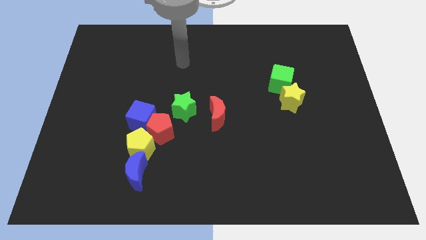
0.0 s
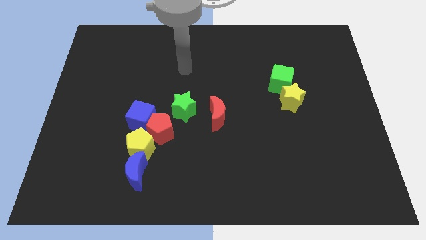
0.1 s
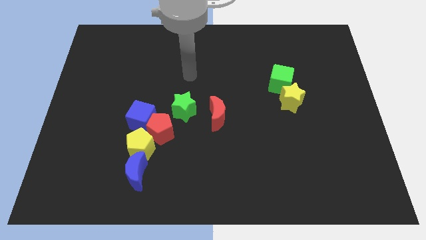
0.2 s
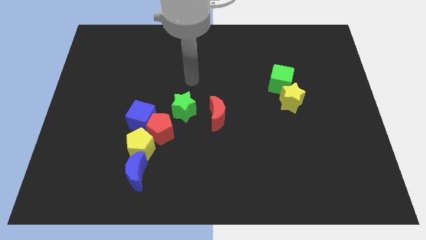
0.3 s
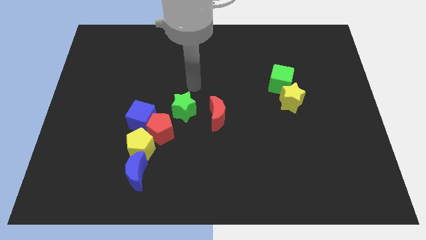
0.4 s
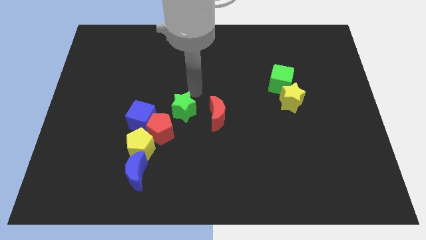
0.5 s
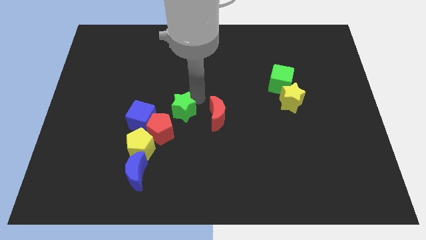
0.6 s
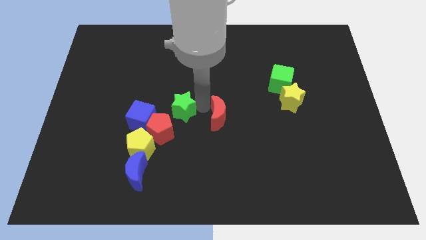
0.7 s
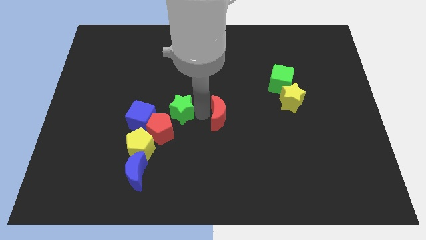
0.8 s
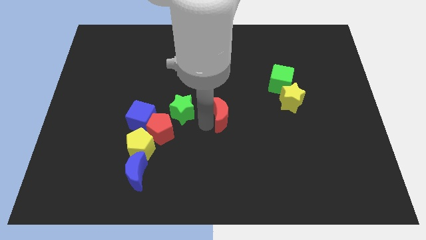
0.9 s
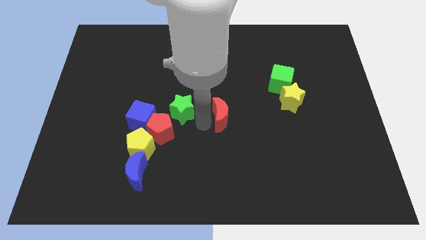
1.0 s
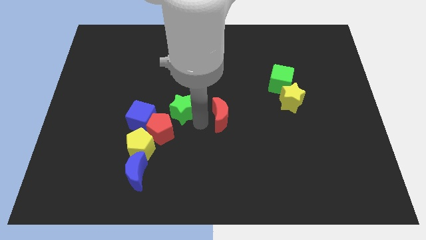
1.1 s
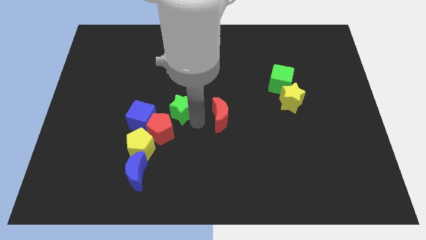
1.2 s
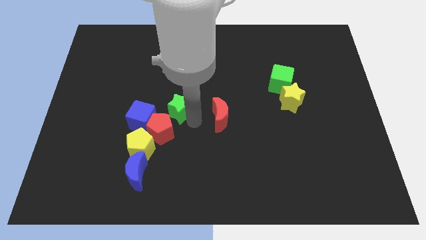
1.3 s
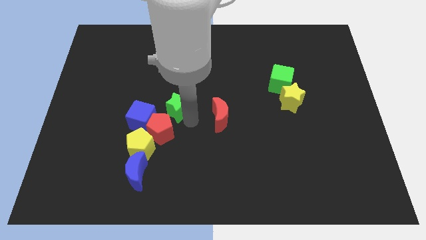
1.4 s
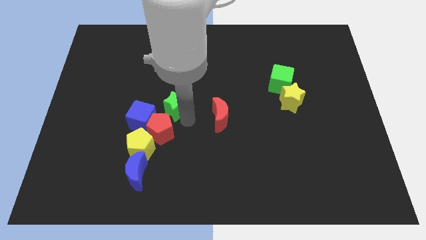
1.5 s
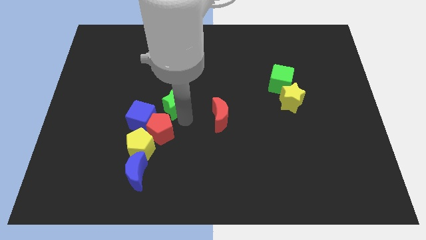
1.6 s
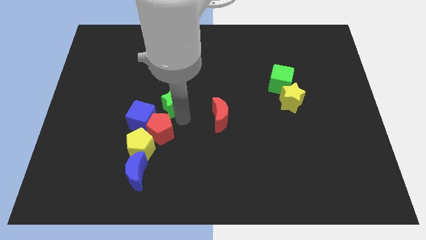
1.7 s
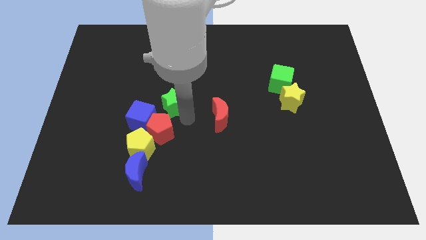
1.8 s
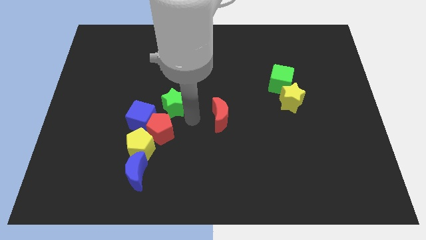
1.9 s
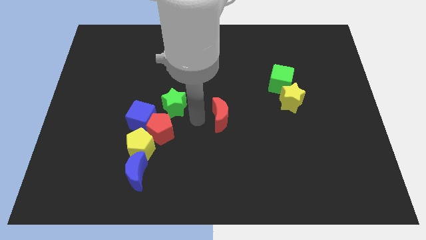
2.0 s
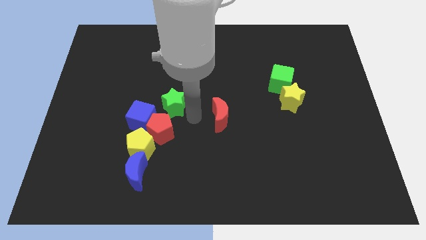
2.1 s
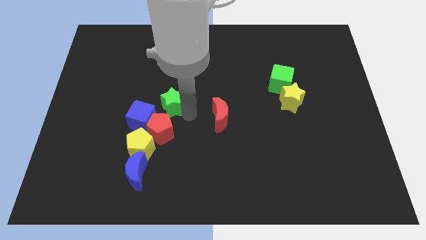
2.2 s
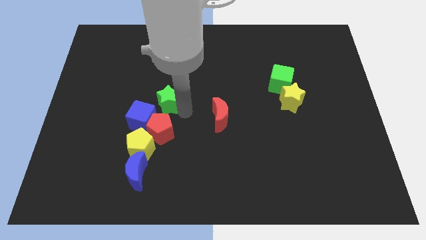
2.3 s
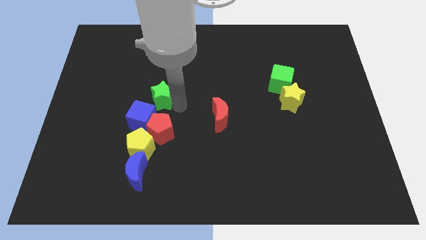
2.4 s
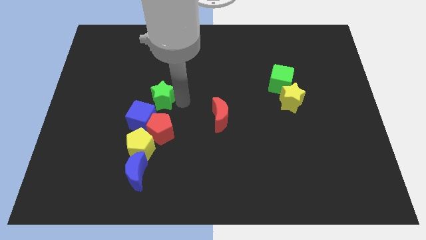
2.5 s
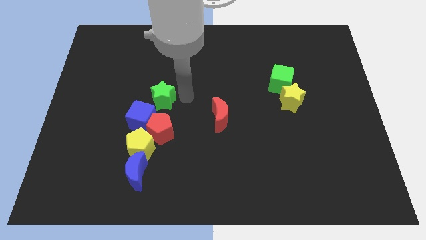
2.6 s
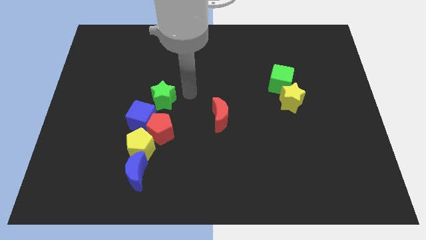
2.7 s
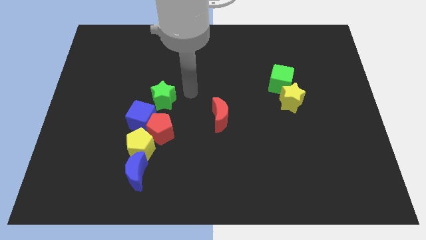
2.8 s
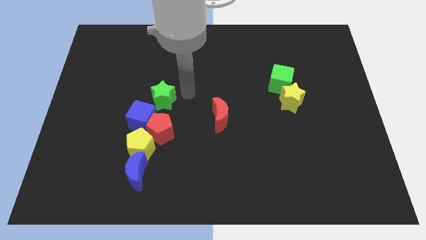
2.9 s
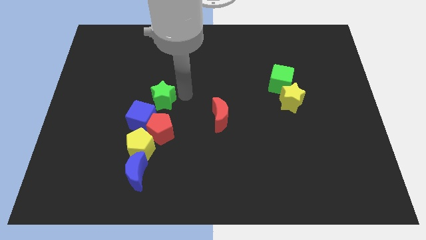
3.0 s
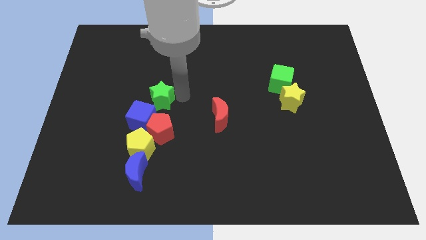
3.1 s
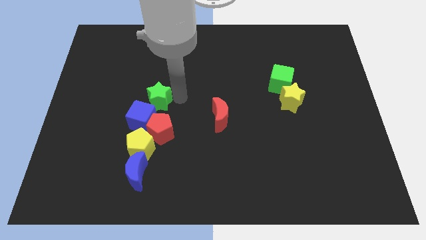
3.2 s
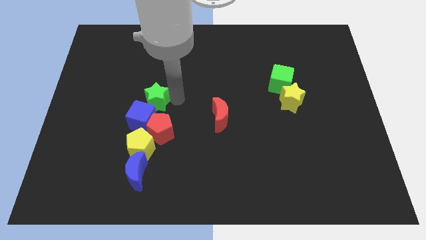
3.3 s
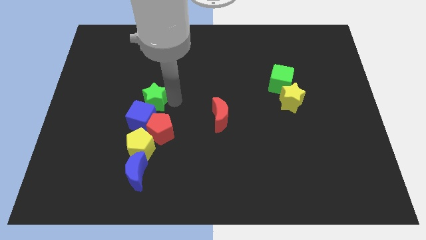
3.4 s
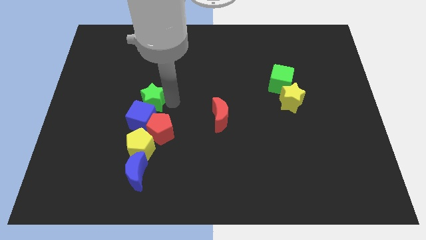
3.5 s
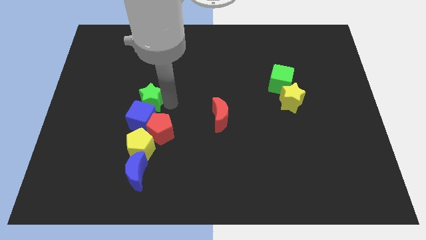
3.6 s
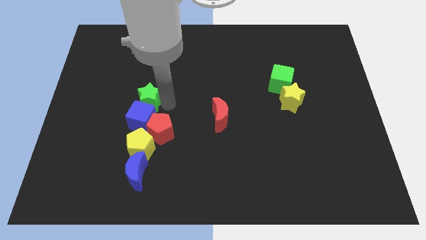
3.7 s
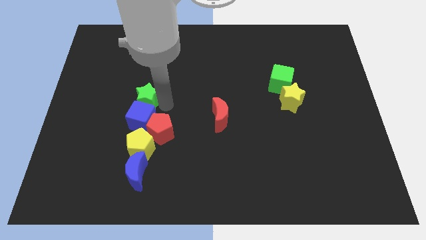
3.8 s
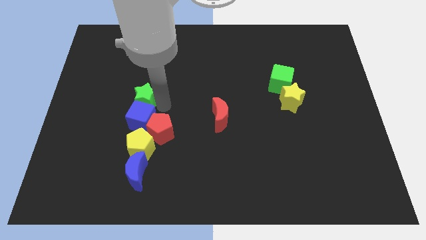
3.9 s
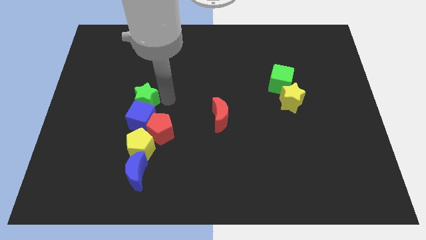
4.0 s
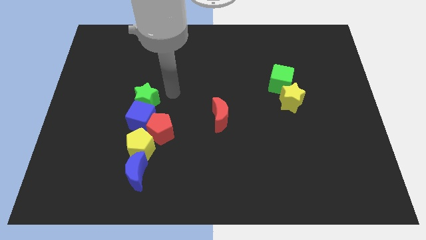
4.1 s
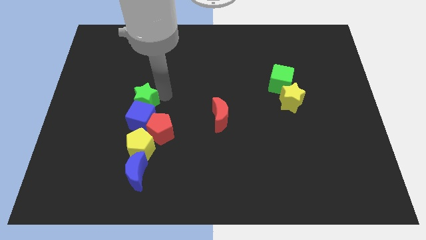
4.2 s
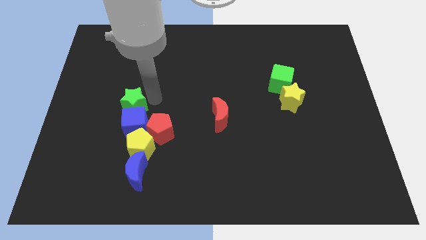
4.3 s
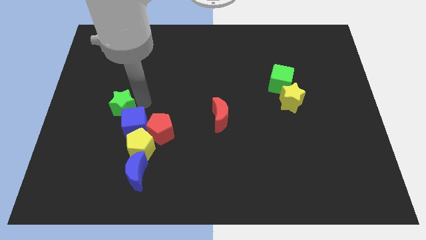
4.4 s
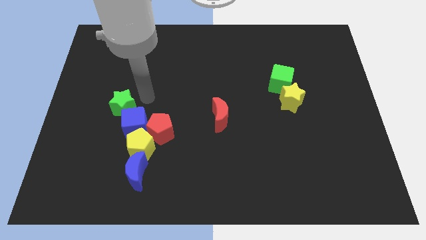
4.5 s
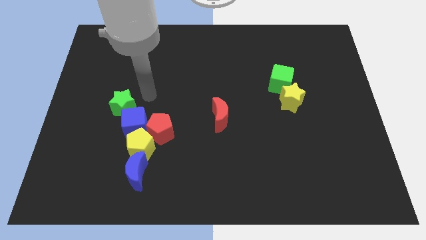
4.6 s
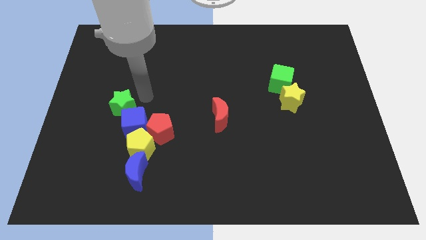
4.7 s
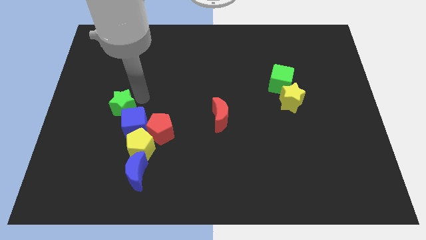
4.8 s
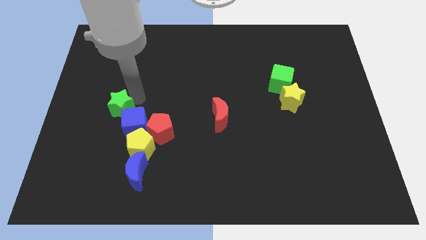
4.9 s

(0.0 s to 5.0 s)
put the green star to the left side of the blue cube

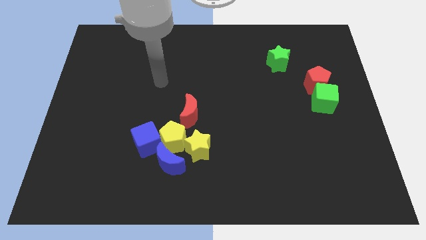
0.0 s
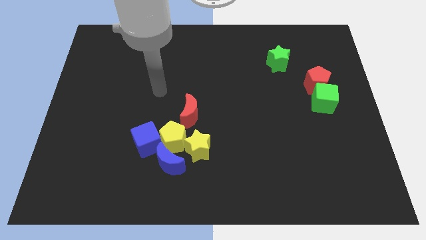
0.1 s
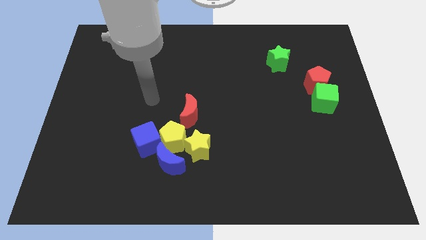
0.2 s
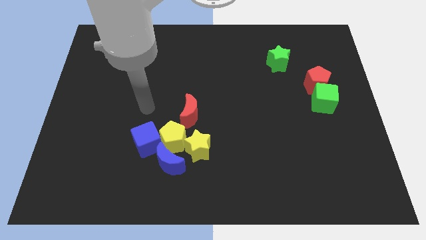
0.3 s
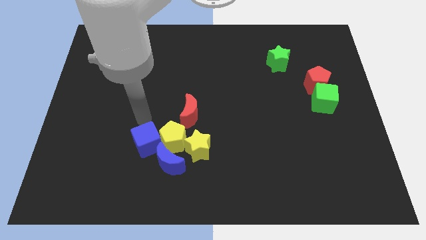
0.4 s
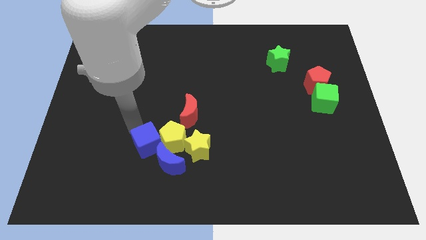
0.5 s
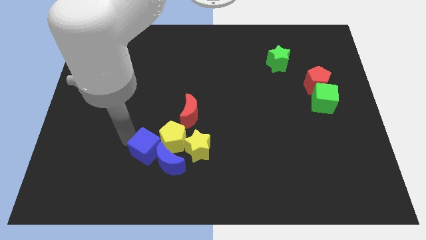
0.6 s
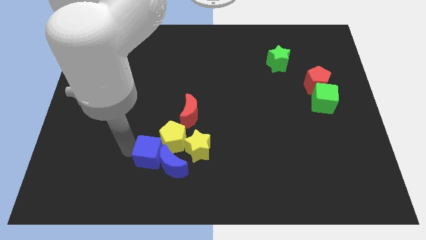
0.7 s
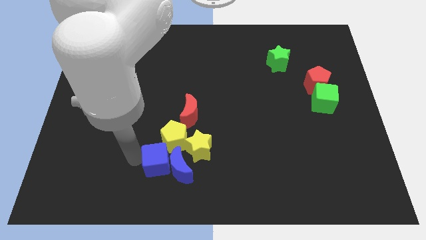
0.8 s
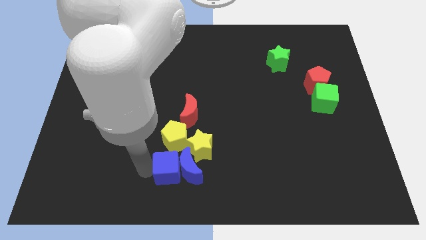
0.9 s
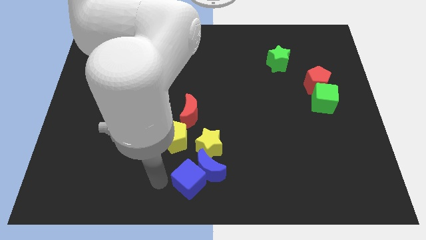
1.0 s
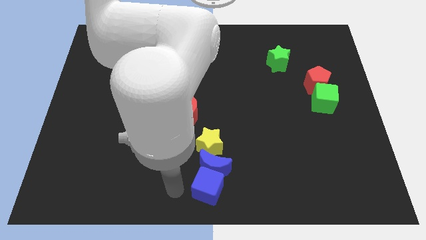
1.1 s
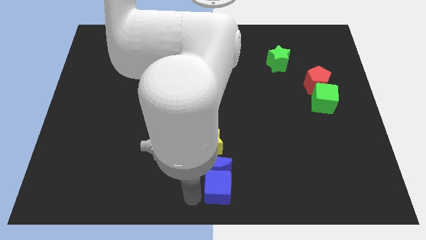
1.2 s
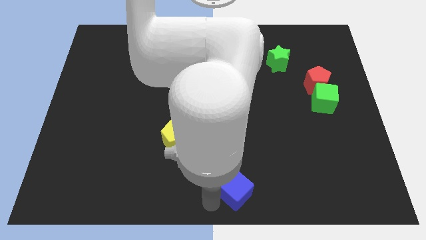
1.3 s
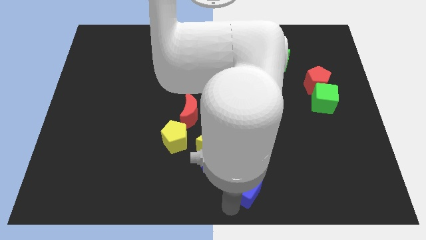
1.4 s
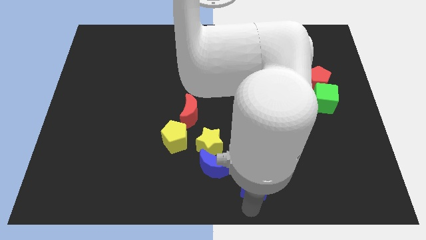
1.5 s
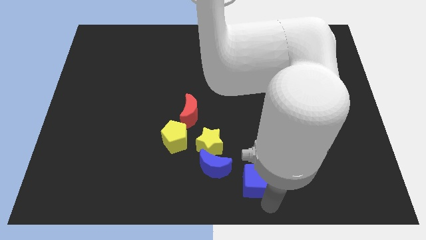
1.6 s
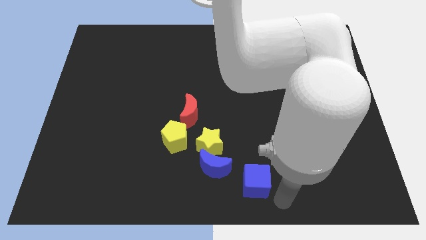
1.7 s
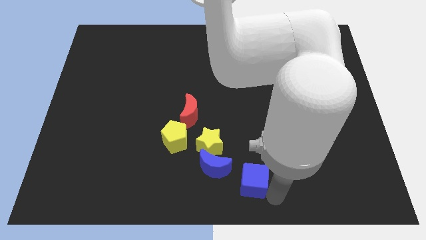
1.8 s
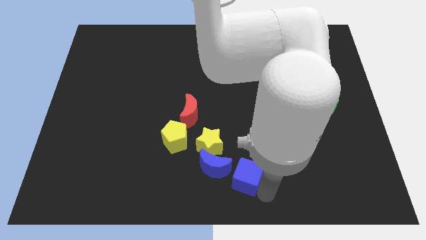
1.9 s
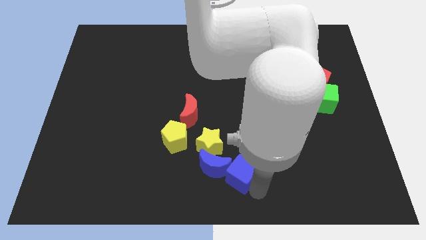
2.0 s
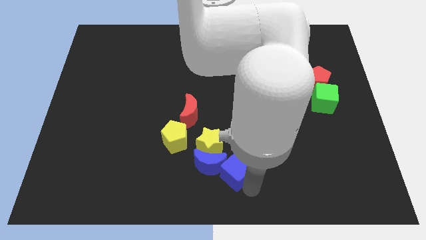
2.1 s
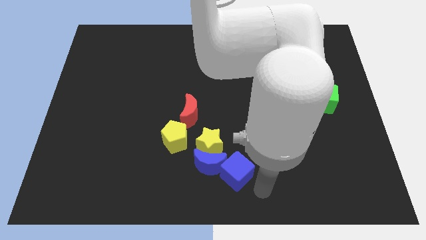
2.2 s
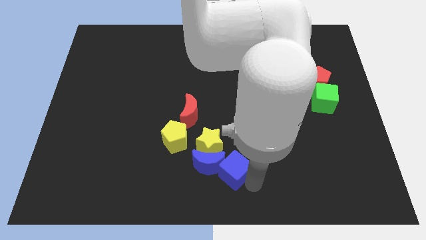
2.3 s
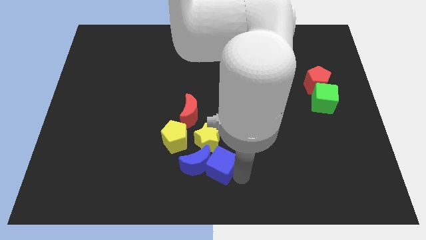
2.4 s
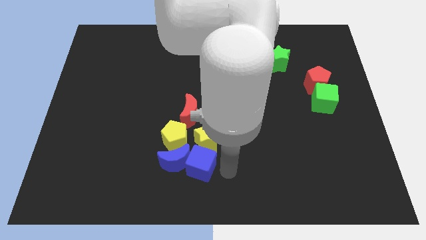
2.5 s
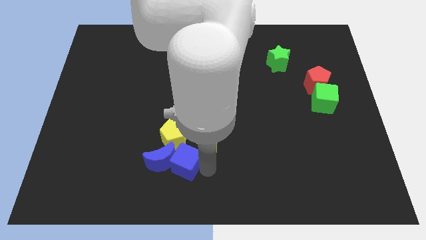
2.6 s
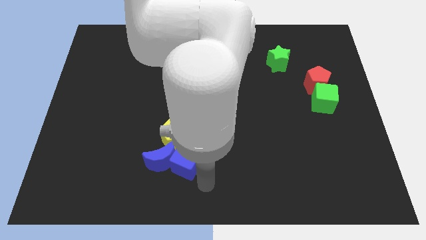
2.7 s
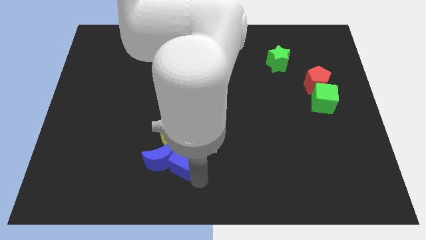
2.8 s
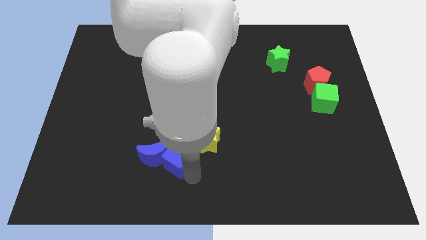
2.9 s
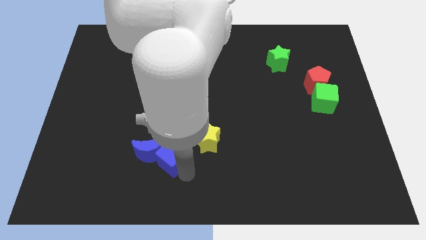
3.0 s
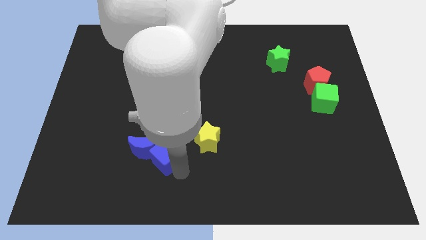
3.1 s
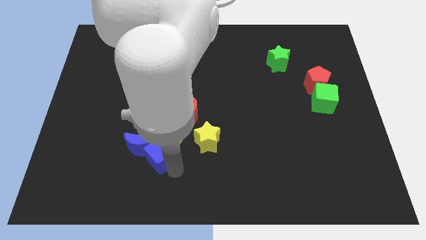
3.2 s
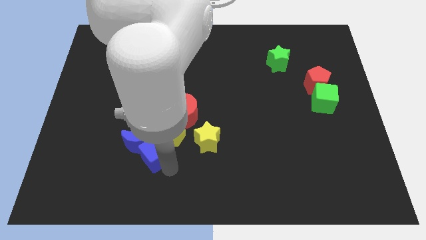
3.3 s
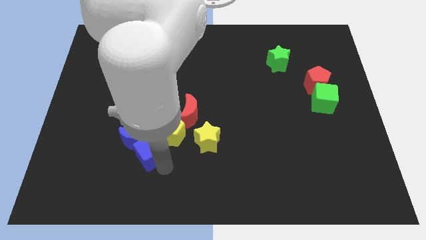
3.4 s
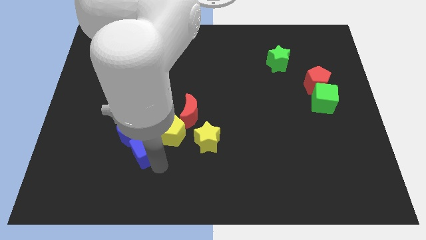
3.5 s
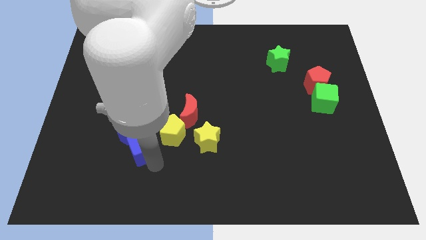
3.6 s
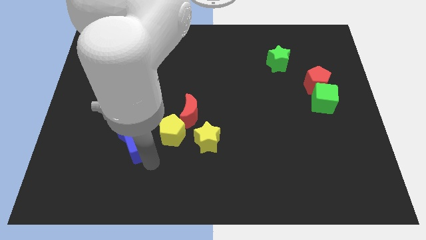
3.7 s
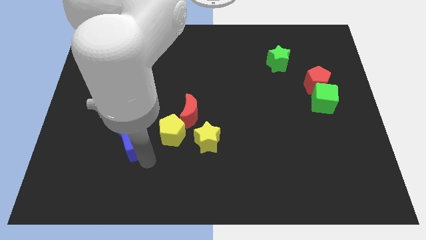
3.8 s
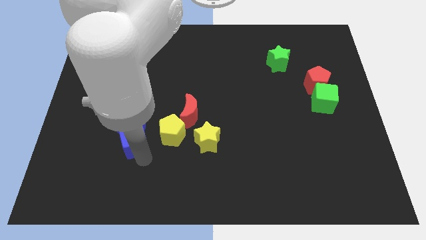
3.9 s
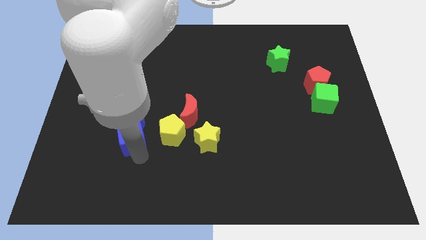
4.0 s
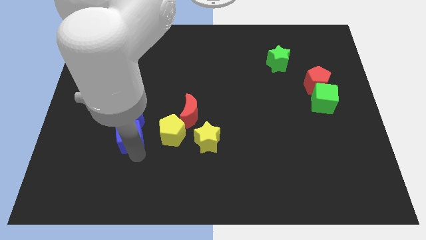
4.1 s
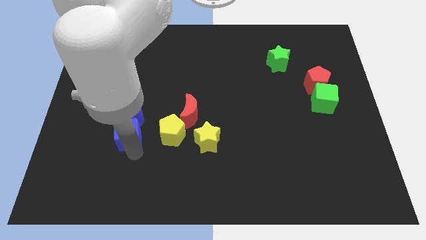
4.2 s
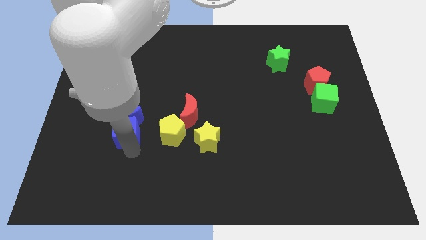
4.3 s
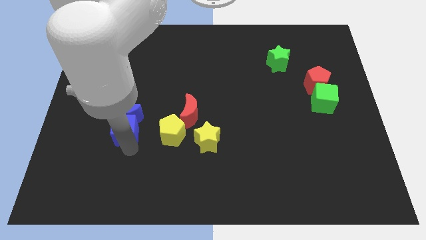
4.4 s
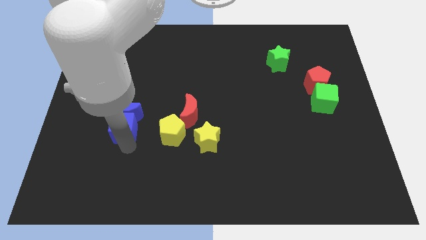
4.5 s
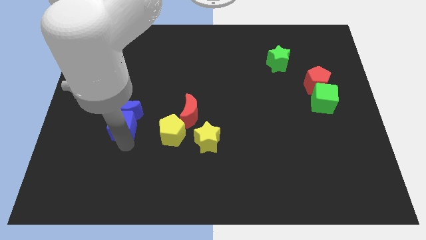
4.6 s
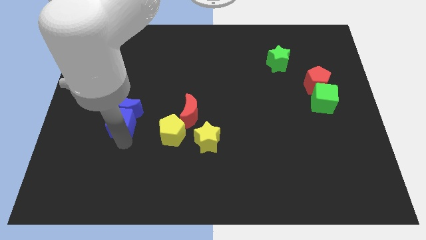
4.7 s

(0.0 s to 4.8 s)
push the blue cube left of the red moon
